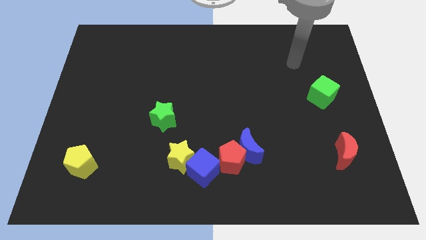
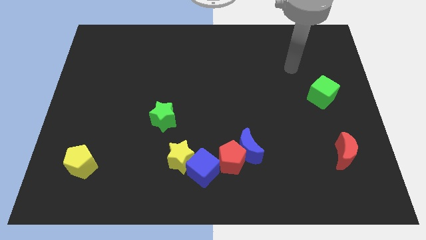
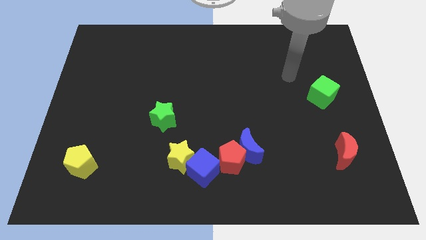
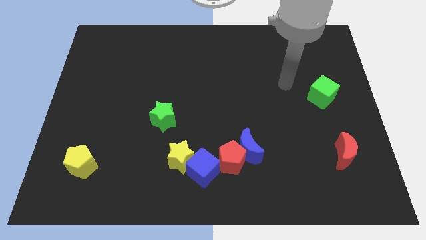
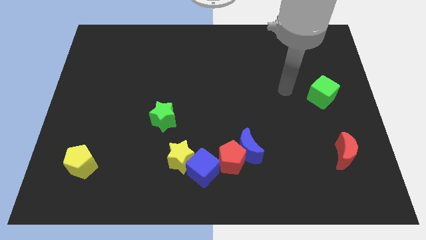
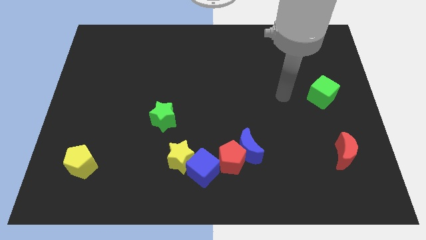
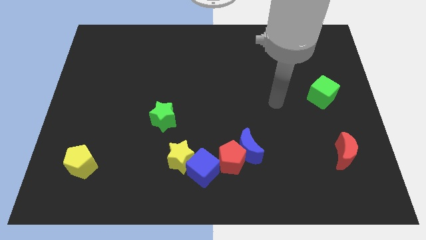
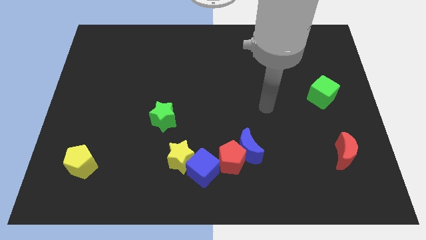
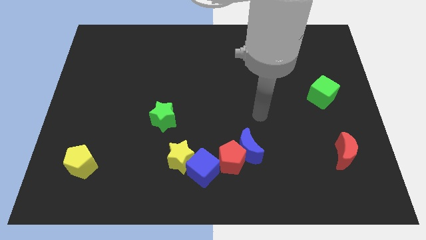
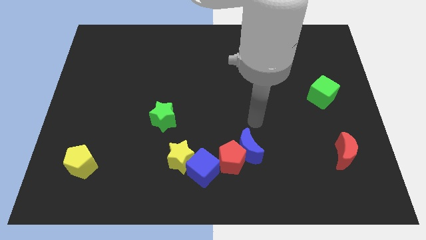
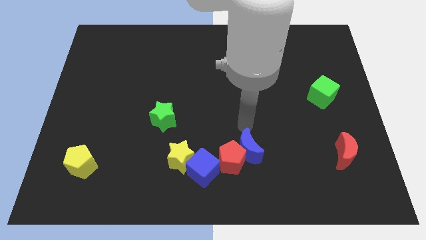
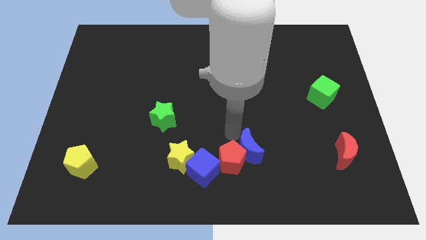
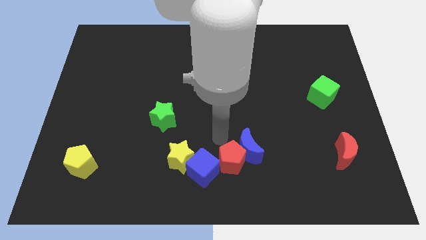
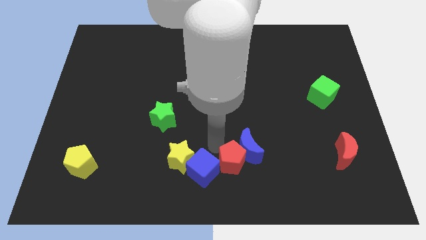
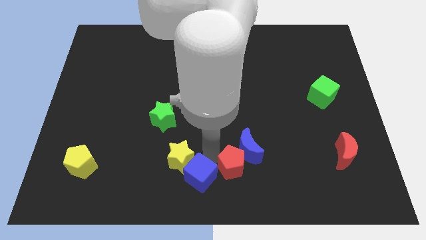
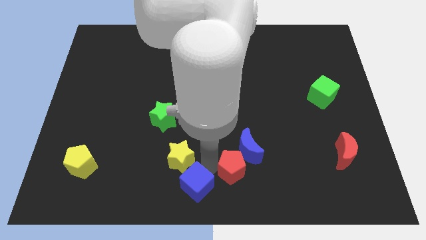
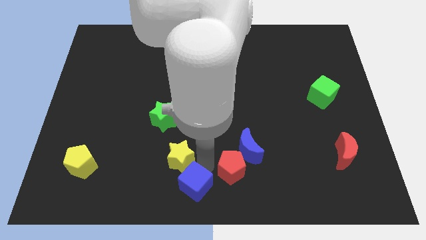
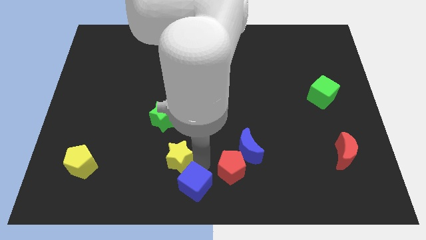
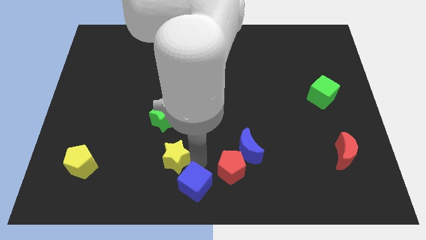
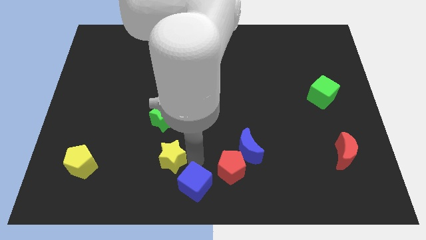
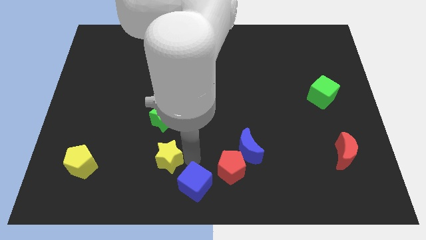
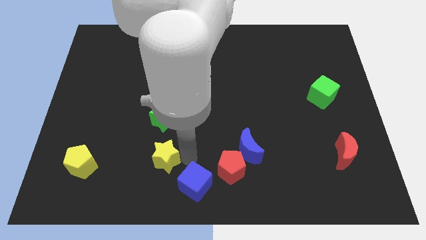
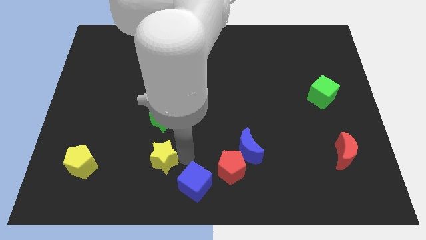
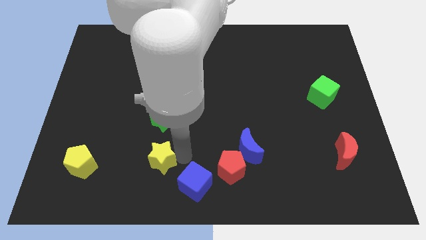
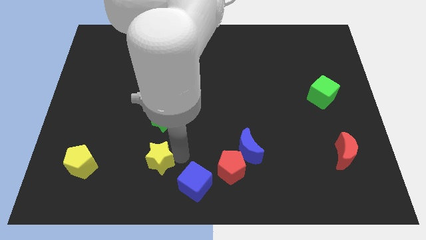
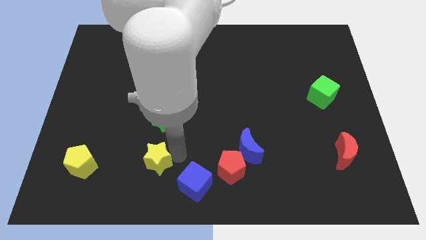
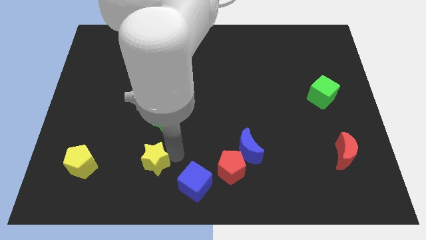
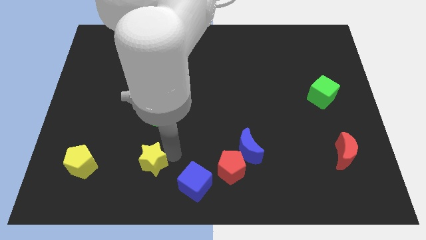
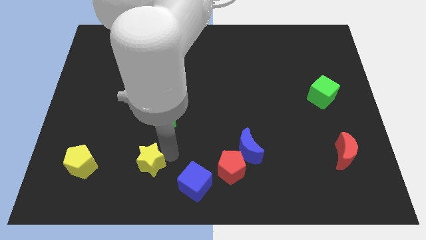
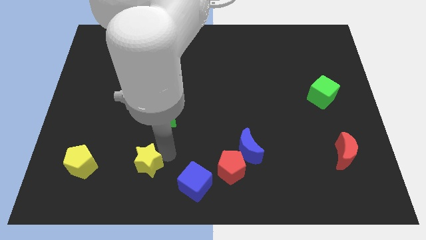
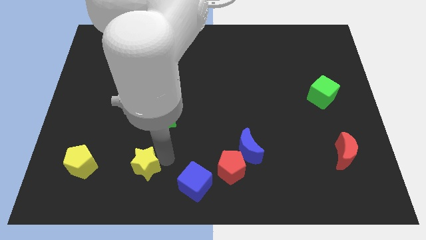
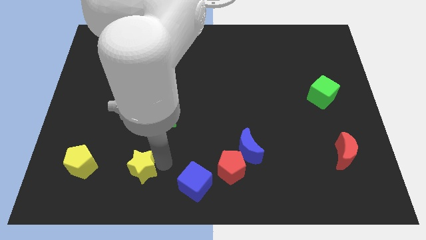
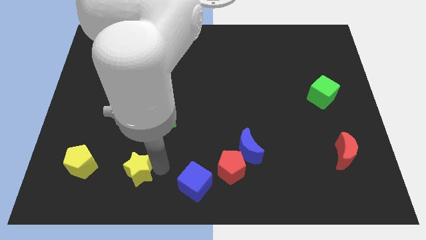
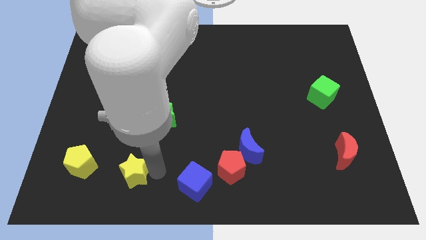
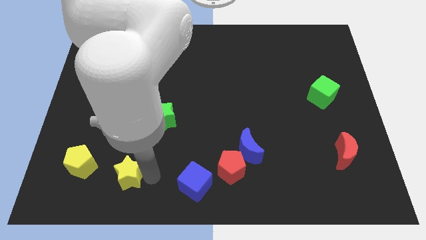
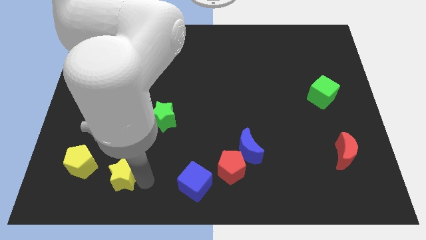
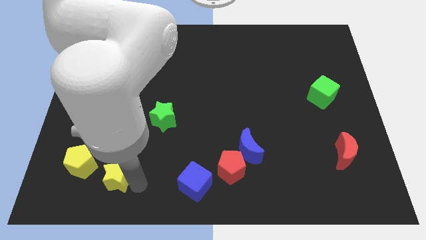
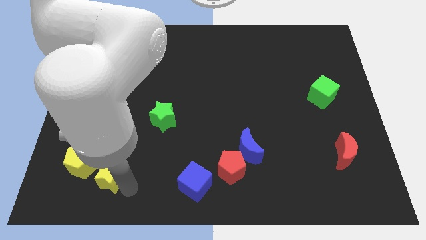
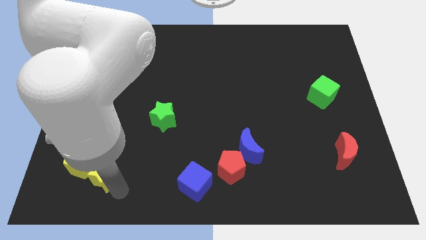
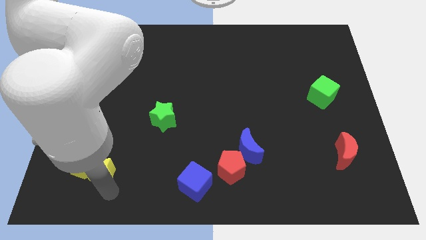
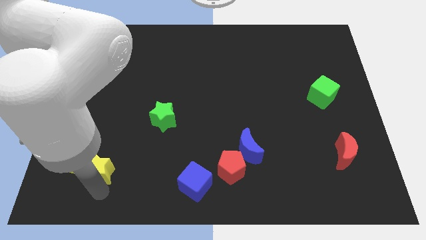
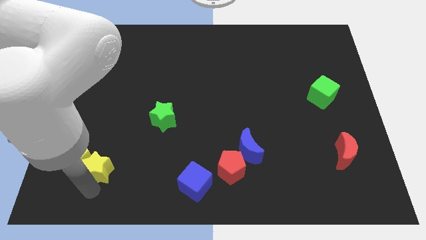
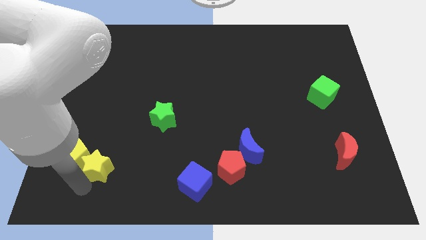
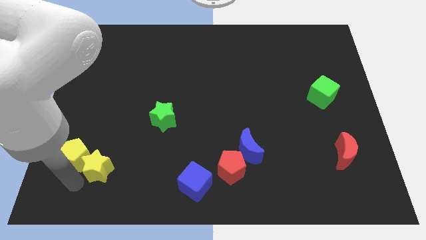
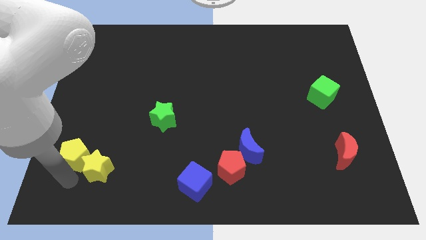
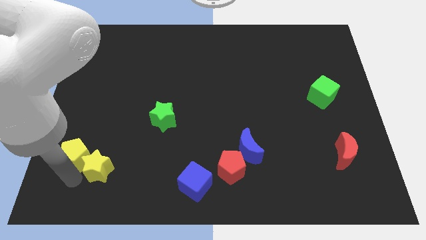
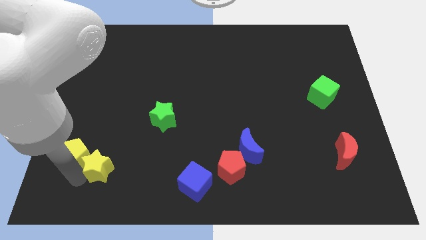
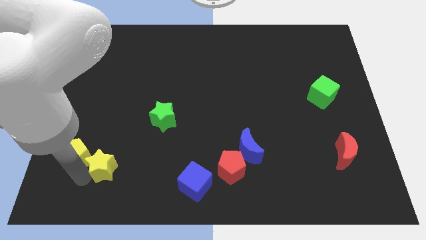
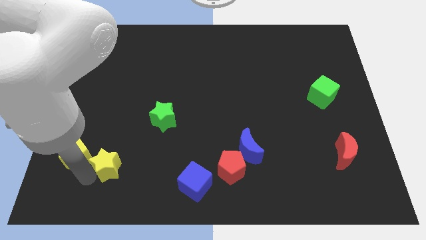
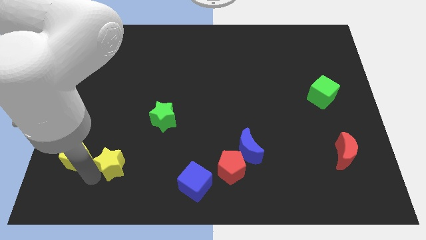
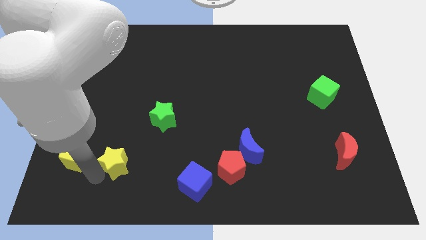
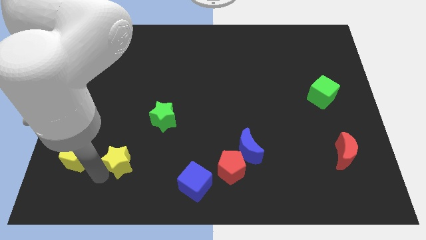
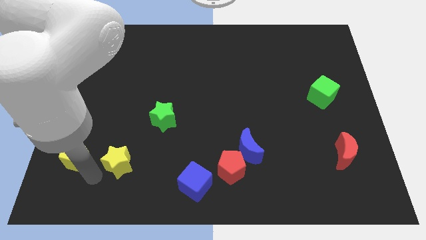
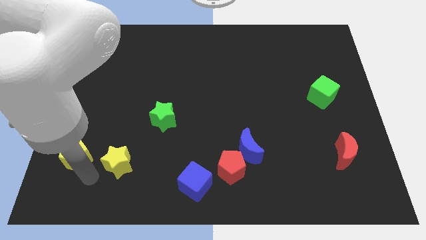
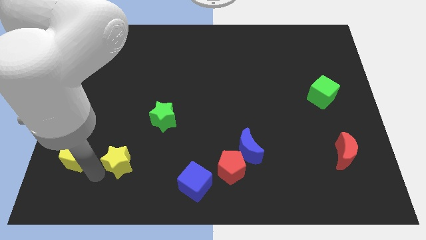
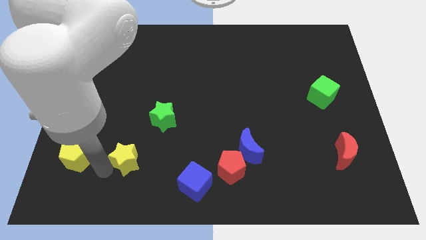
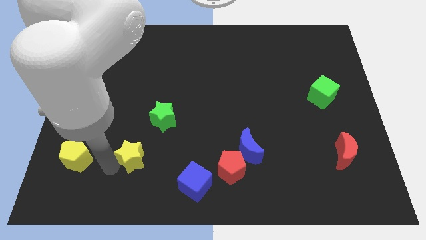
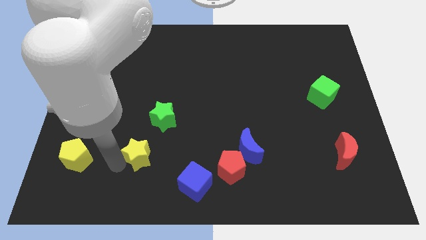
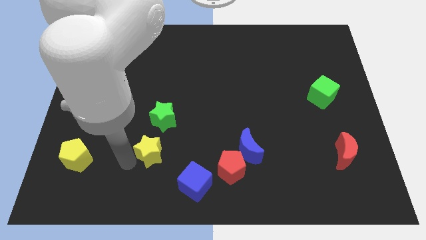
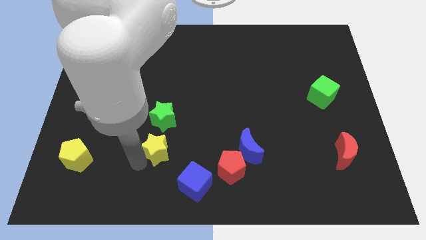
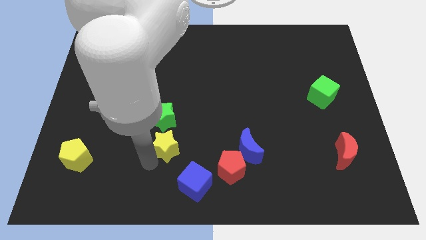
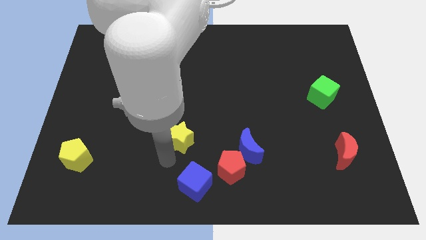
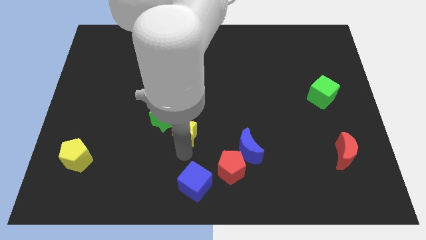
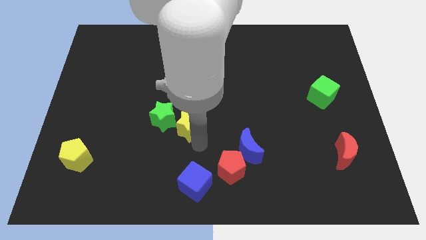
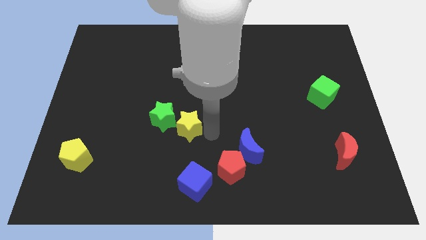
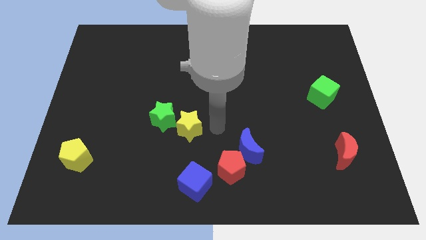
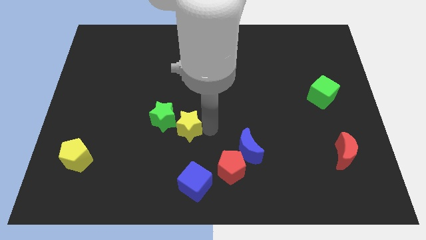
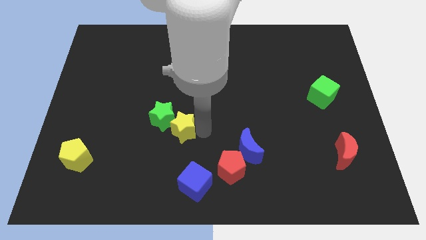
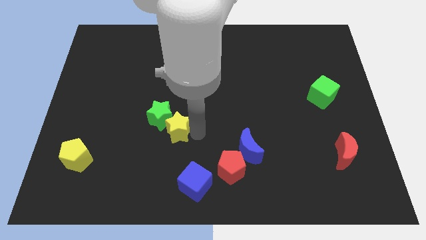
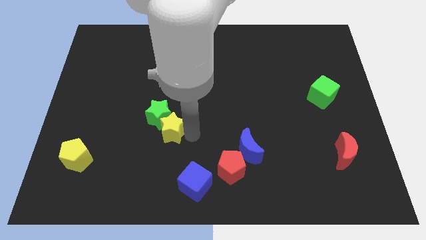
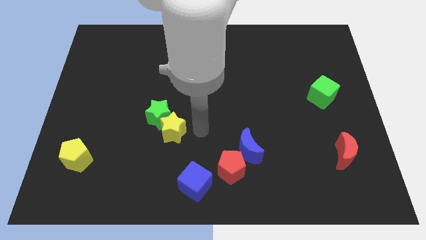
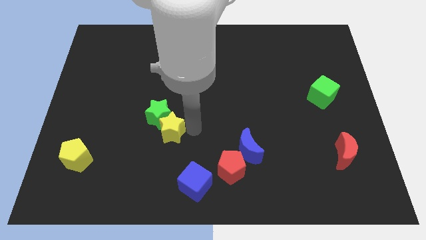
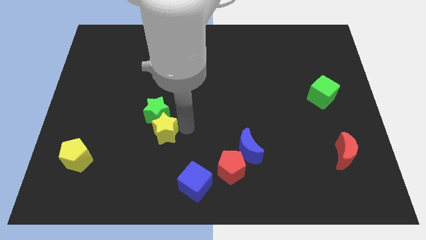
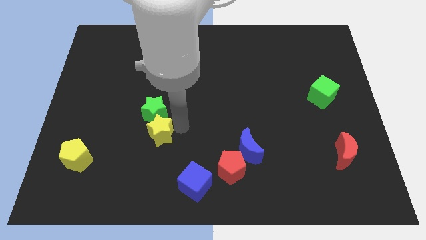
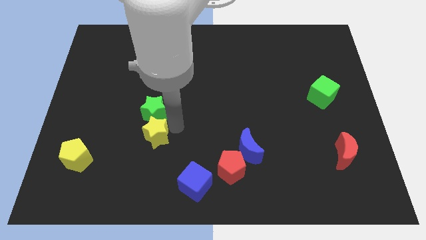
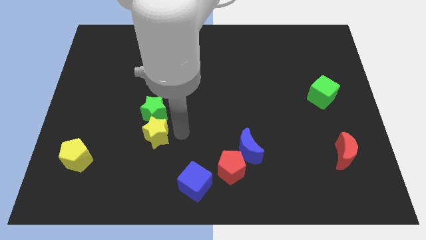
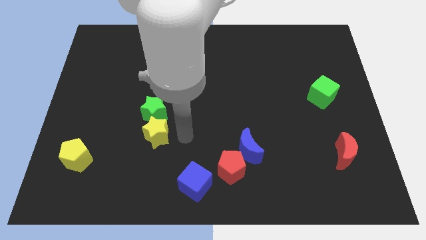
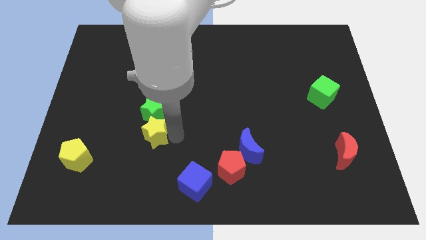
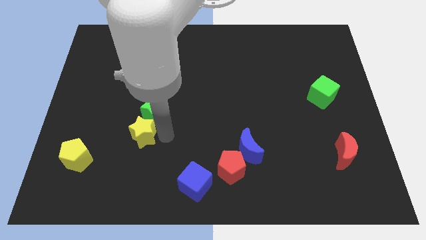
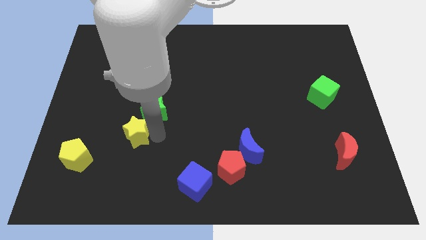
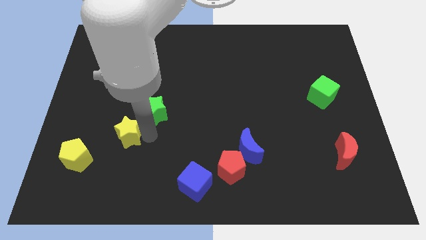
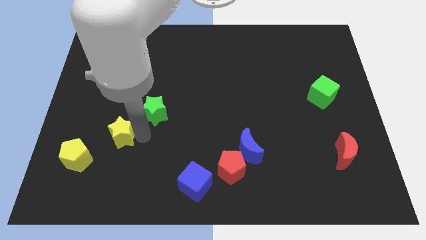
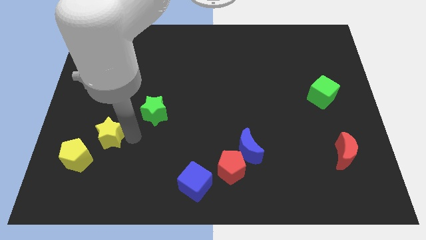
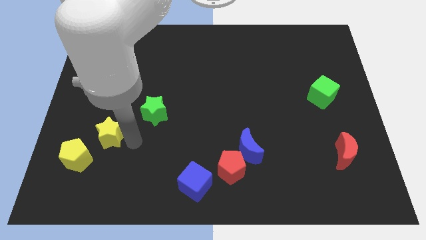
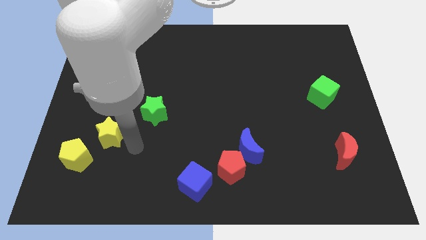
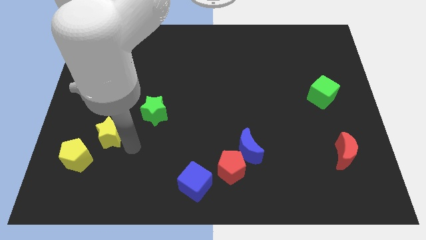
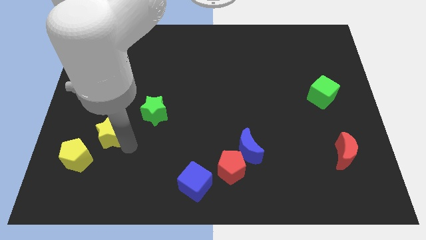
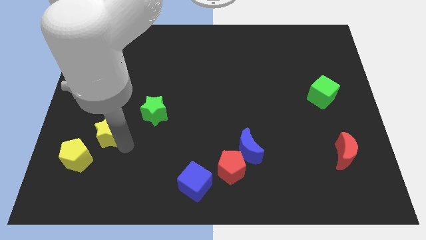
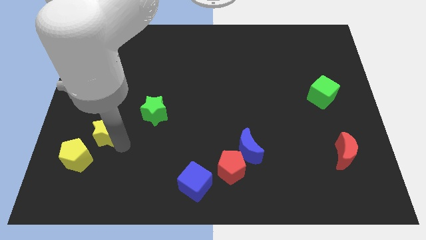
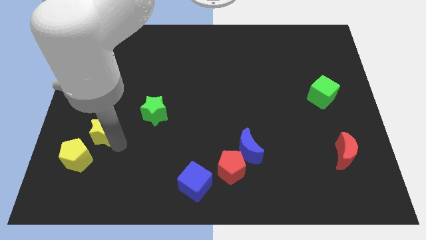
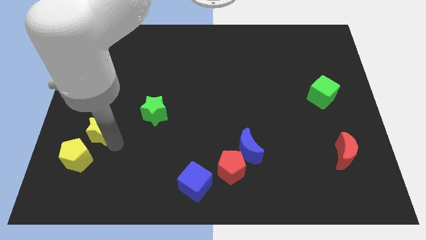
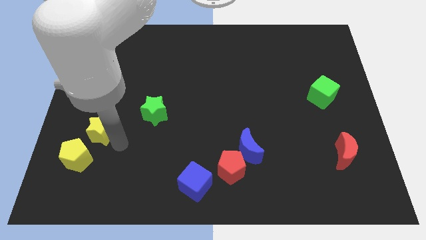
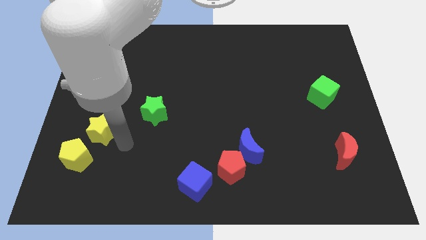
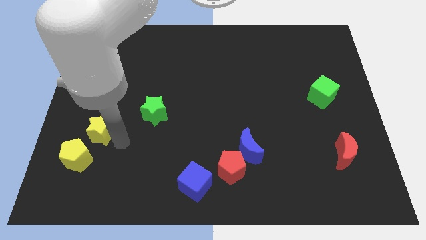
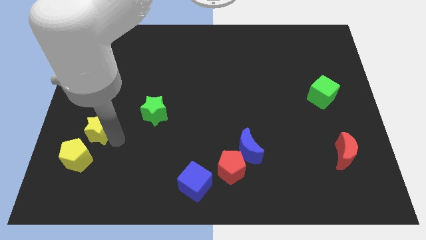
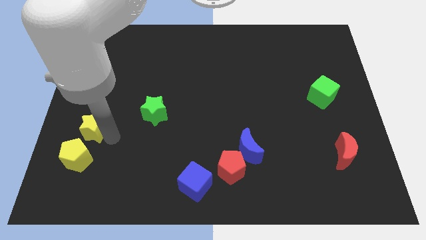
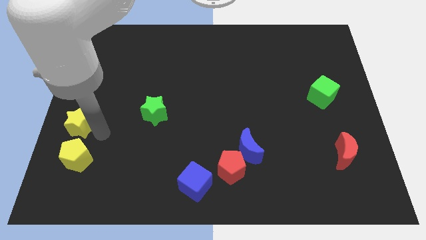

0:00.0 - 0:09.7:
slide the yellow star to the left side of the board
